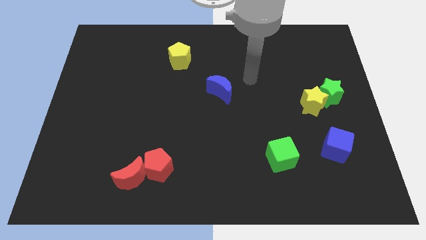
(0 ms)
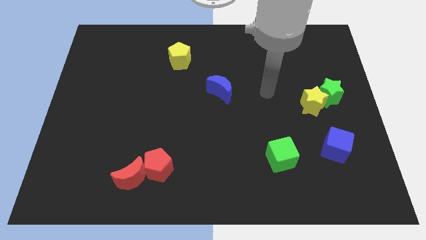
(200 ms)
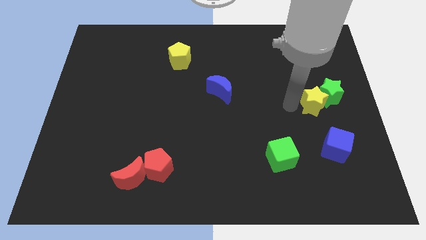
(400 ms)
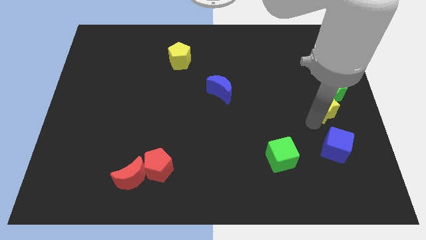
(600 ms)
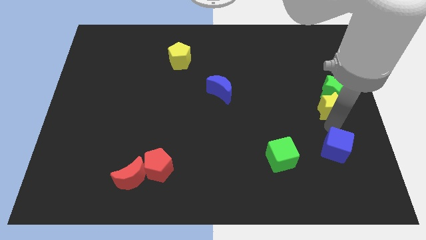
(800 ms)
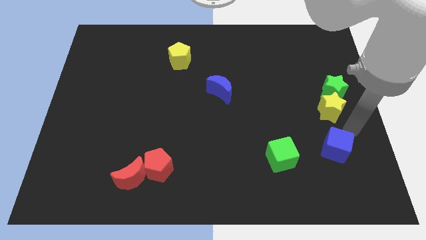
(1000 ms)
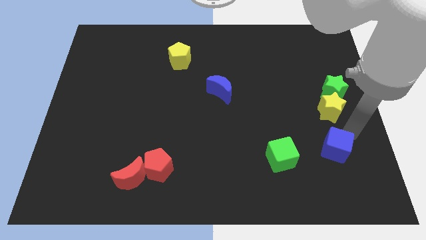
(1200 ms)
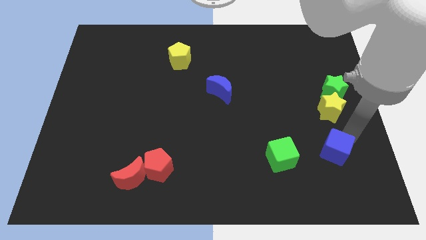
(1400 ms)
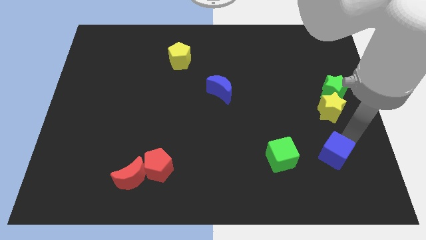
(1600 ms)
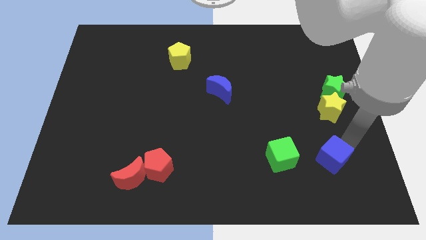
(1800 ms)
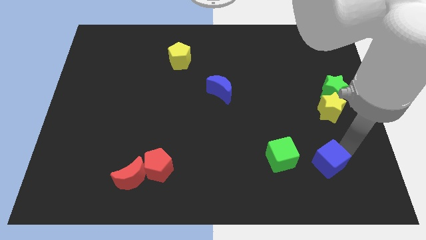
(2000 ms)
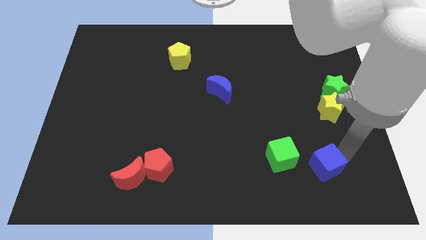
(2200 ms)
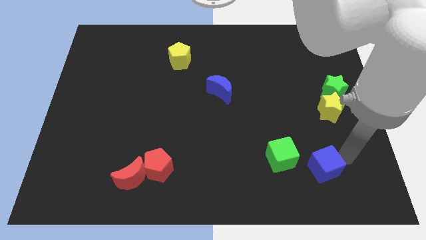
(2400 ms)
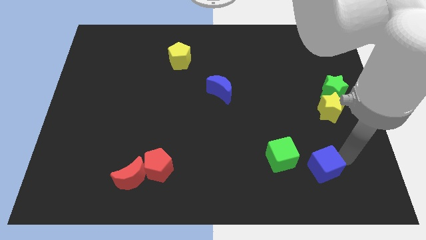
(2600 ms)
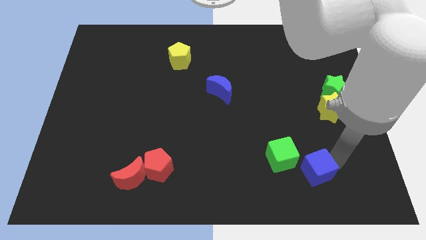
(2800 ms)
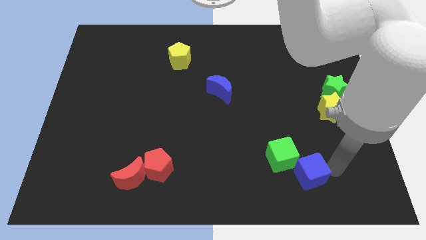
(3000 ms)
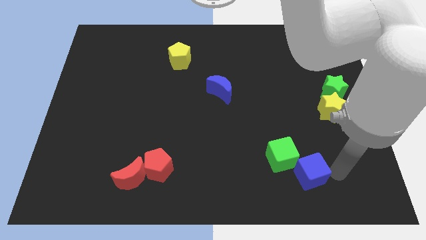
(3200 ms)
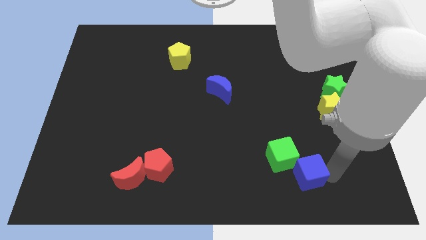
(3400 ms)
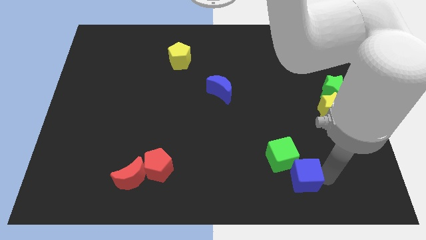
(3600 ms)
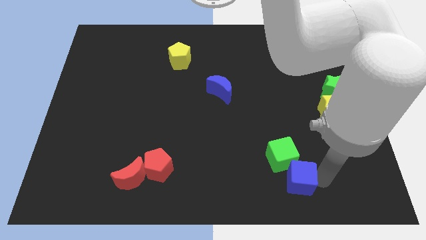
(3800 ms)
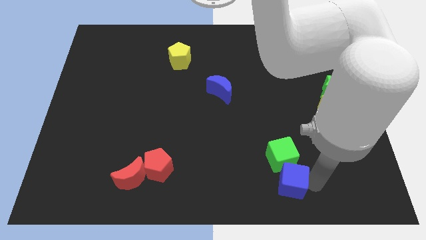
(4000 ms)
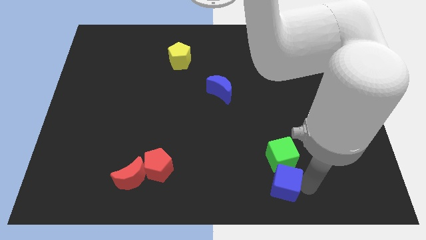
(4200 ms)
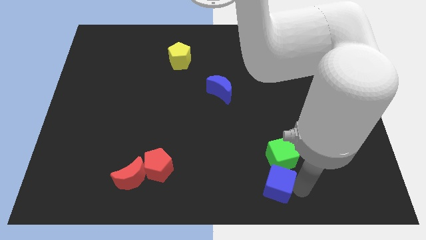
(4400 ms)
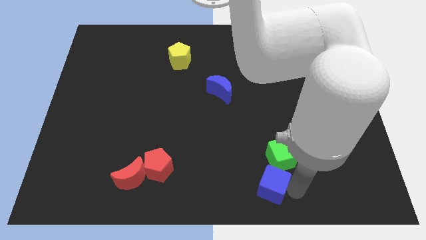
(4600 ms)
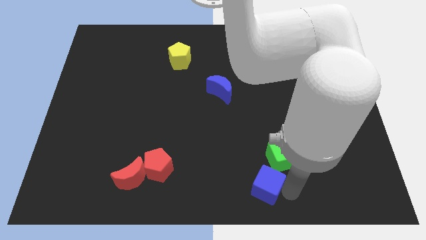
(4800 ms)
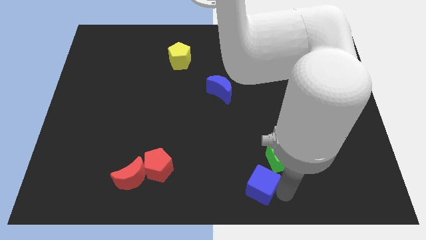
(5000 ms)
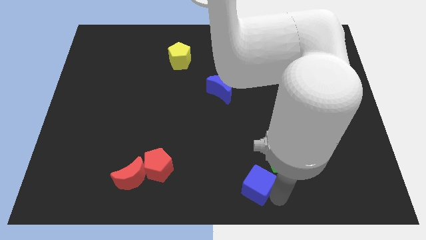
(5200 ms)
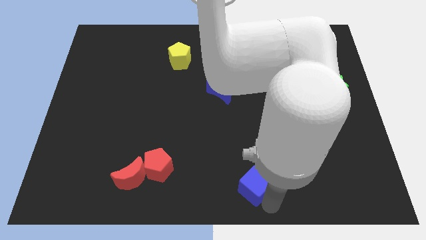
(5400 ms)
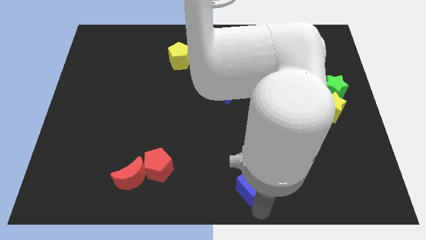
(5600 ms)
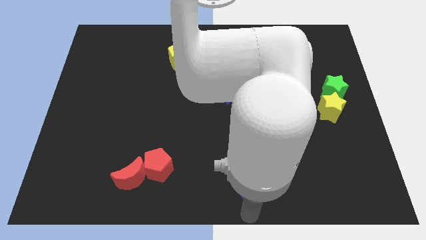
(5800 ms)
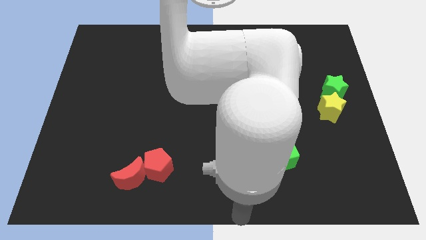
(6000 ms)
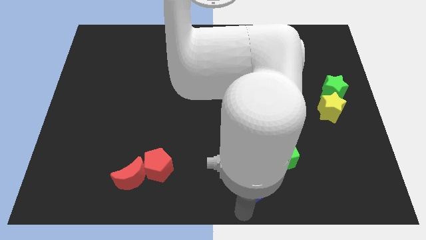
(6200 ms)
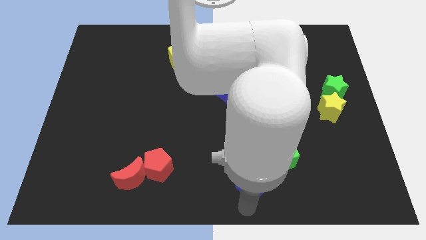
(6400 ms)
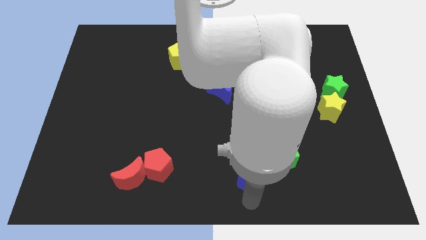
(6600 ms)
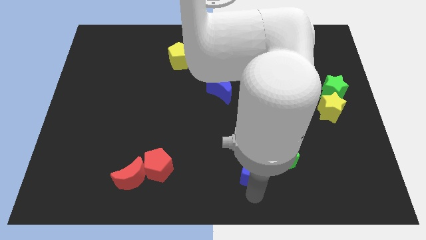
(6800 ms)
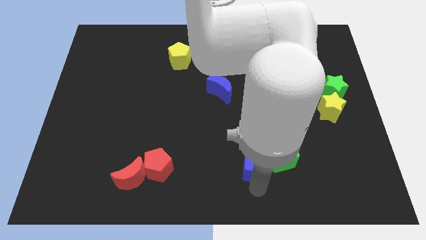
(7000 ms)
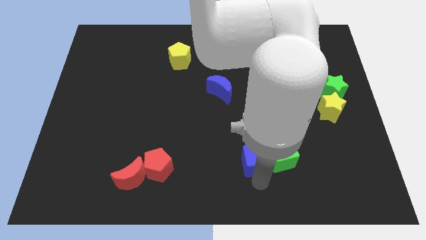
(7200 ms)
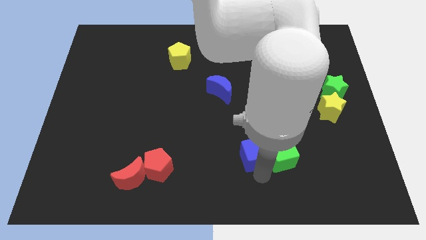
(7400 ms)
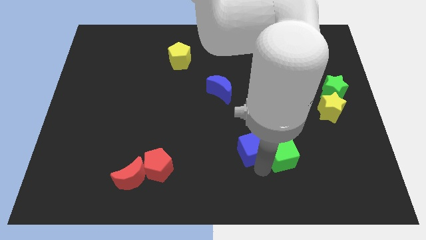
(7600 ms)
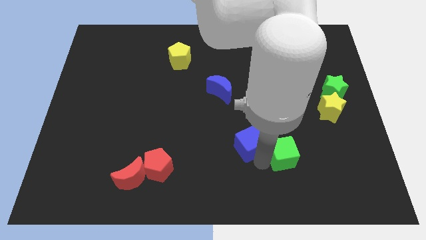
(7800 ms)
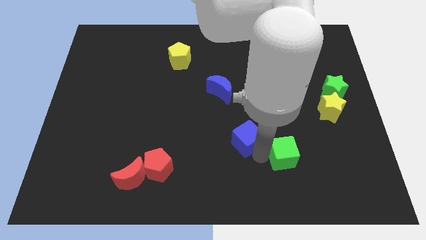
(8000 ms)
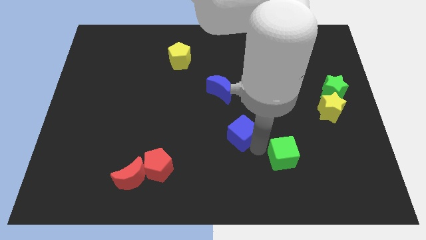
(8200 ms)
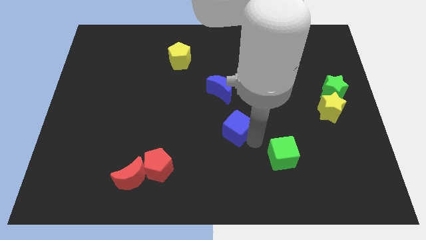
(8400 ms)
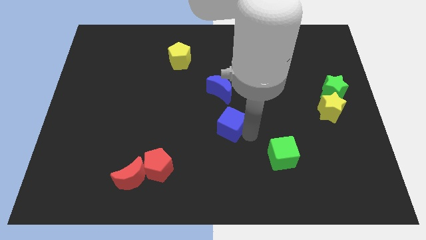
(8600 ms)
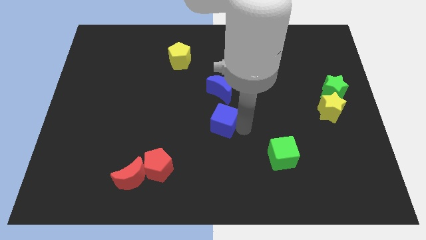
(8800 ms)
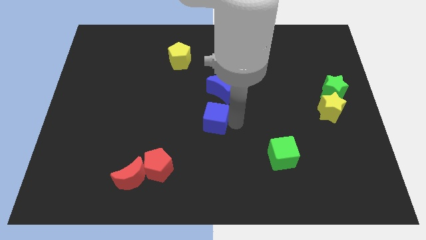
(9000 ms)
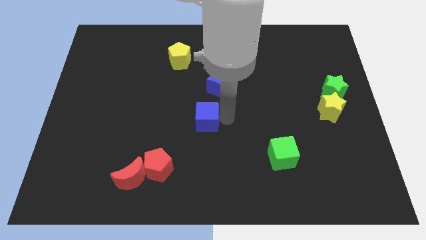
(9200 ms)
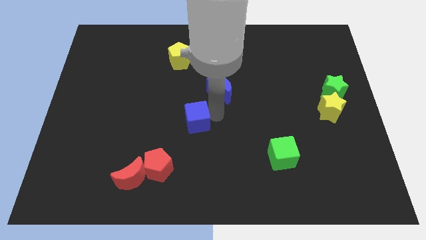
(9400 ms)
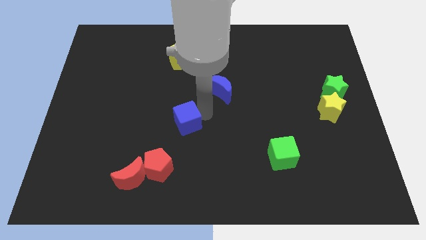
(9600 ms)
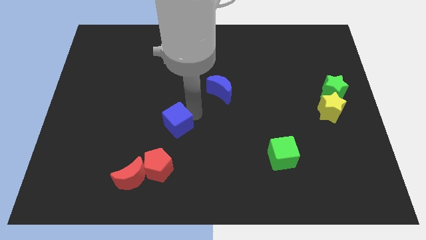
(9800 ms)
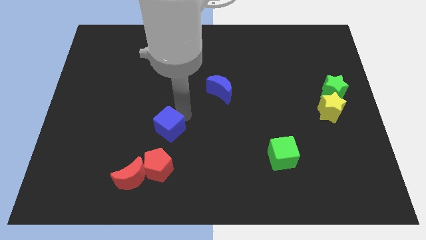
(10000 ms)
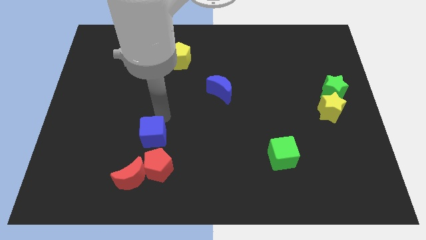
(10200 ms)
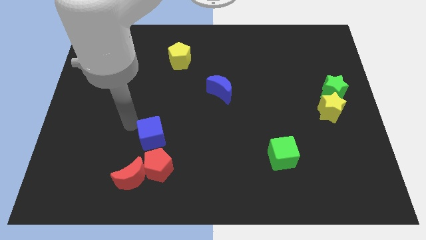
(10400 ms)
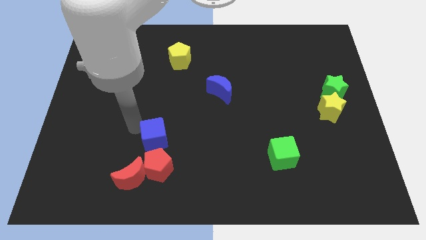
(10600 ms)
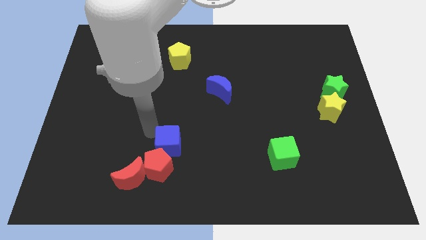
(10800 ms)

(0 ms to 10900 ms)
slide the blue cube to the red pentagon

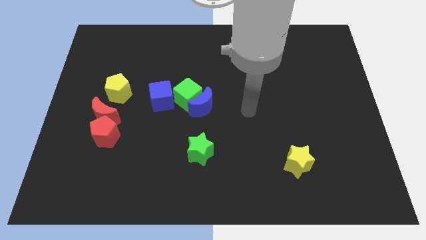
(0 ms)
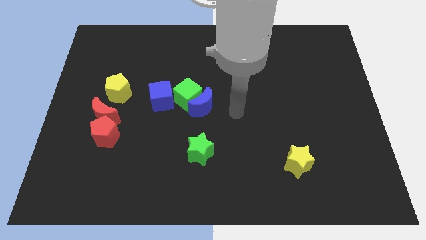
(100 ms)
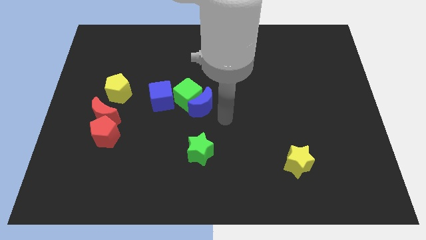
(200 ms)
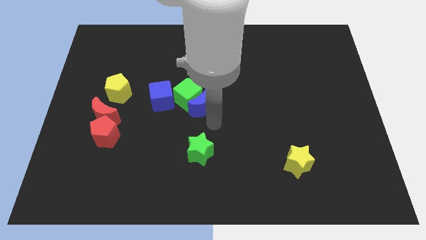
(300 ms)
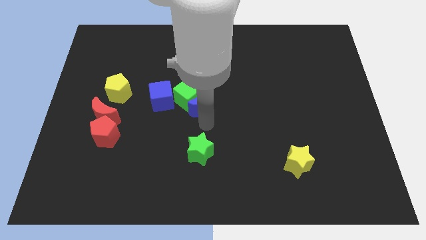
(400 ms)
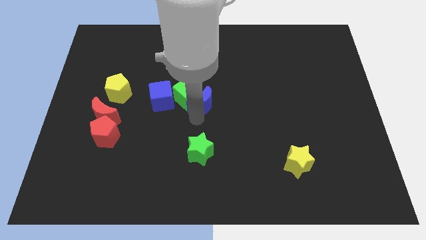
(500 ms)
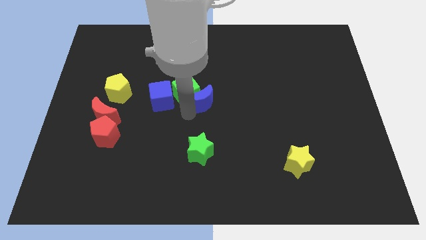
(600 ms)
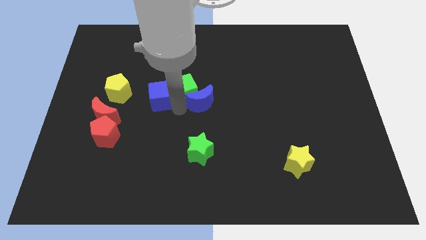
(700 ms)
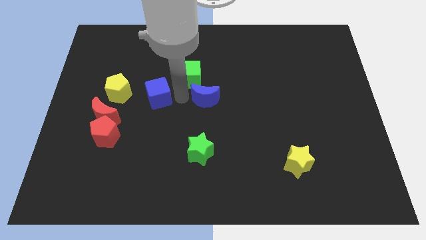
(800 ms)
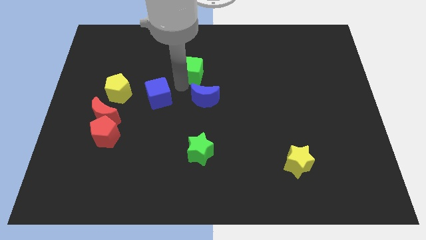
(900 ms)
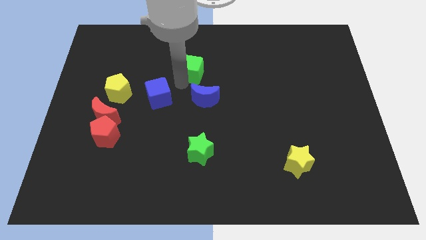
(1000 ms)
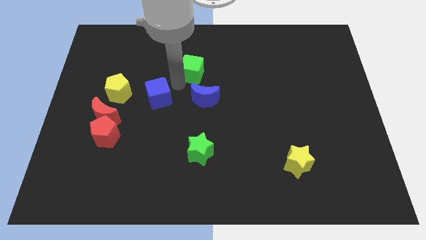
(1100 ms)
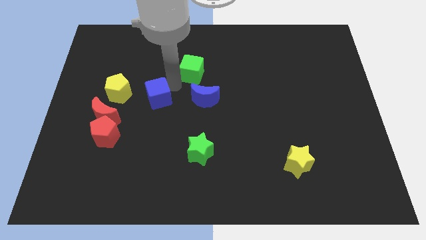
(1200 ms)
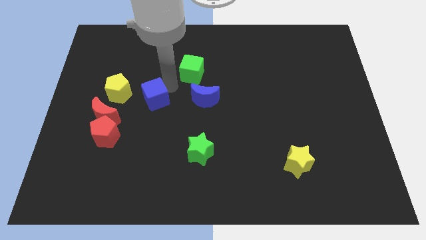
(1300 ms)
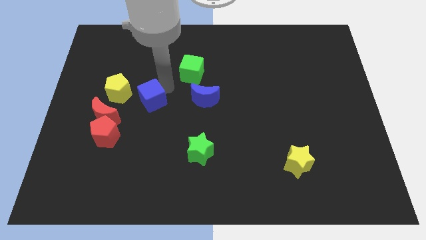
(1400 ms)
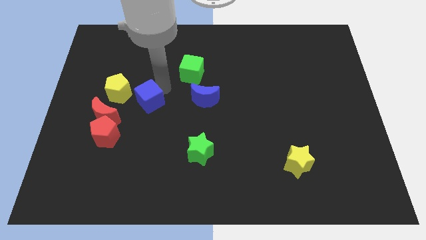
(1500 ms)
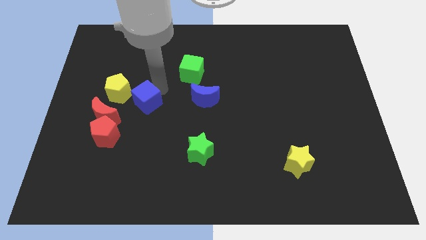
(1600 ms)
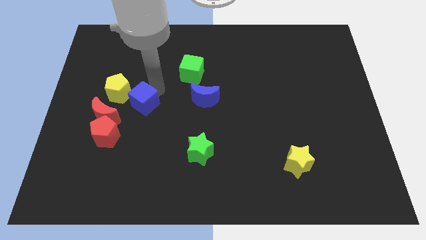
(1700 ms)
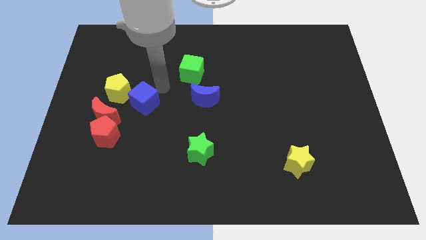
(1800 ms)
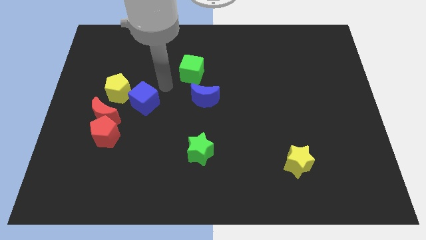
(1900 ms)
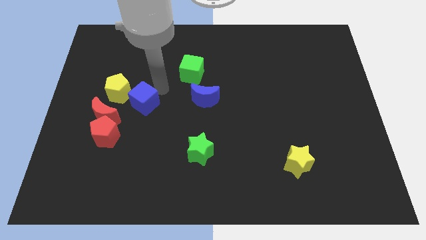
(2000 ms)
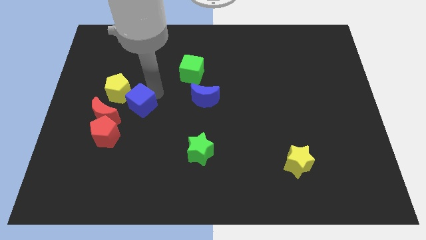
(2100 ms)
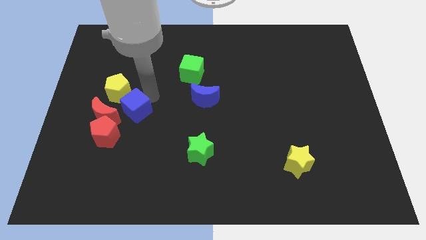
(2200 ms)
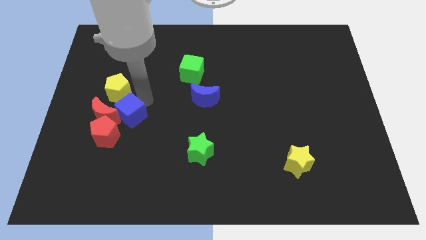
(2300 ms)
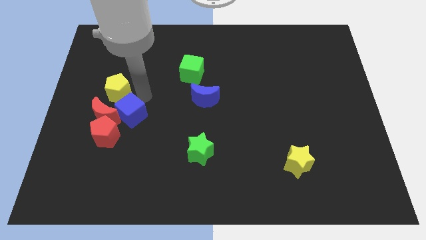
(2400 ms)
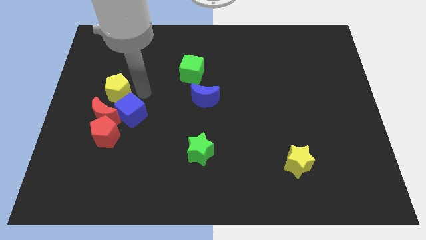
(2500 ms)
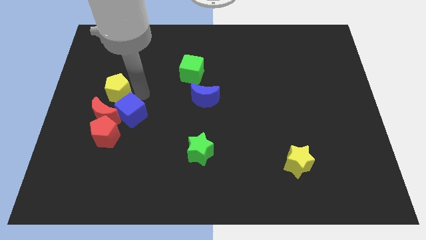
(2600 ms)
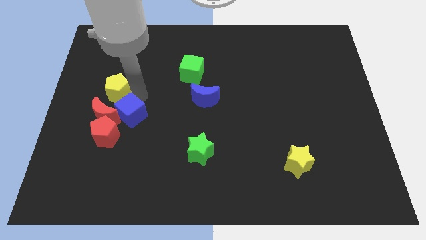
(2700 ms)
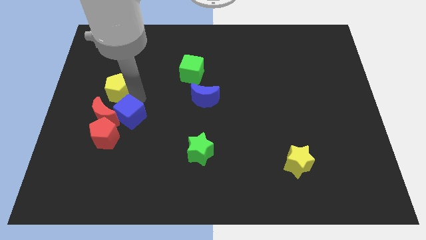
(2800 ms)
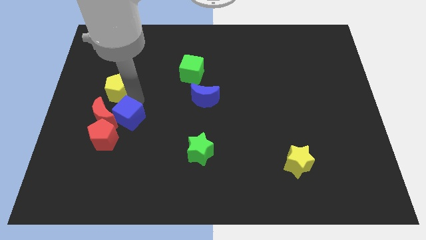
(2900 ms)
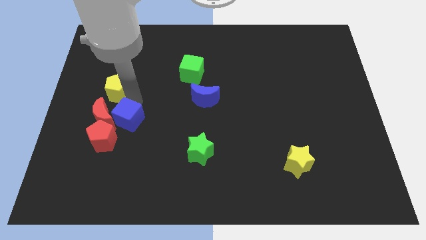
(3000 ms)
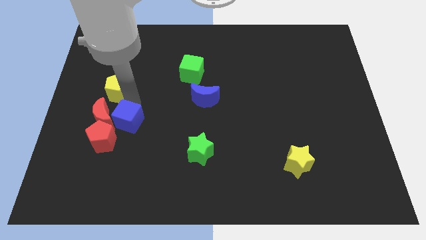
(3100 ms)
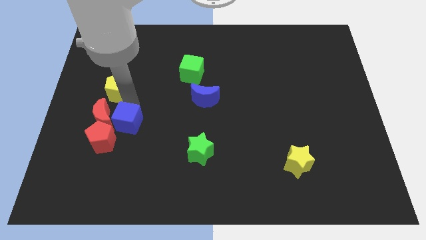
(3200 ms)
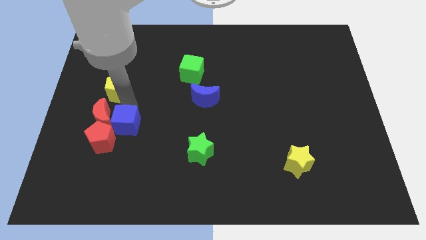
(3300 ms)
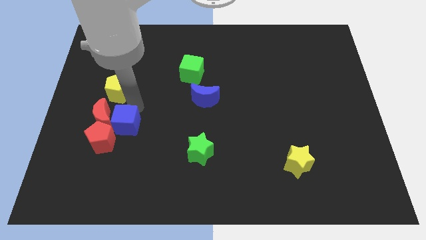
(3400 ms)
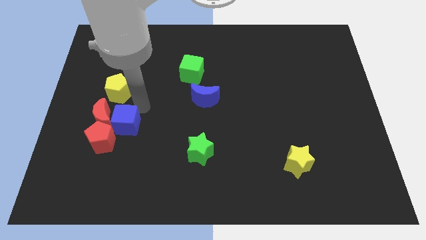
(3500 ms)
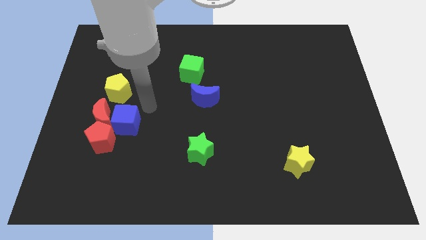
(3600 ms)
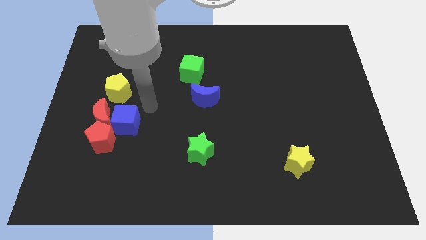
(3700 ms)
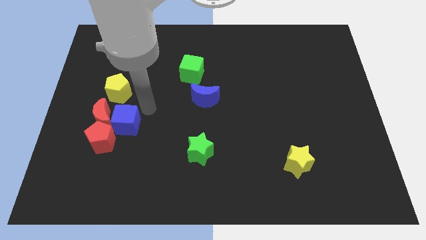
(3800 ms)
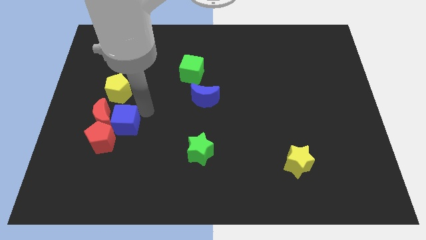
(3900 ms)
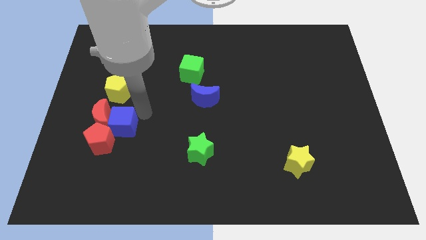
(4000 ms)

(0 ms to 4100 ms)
slide the blue cube towards the red pentagon
